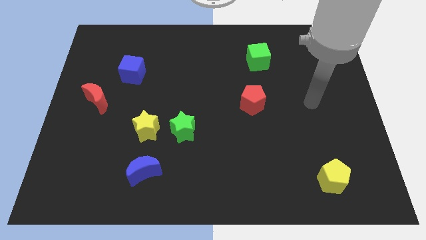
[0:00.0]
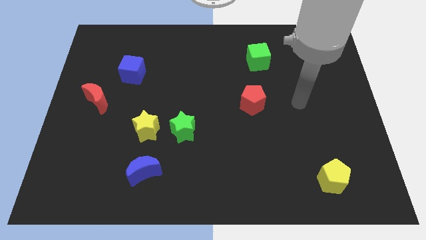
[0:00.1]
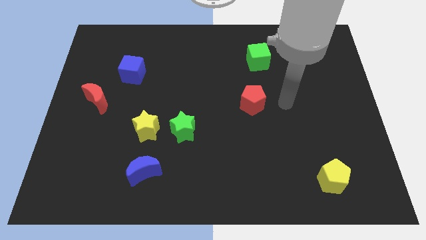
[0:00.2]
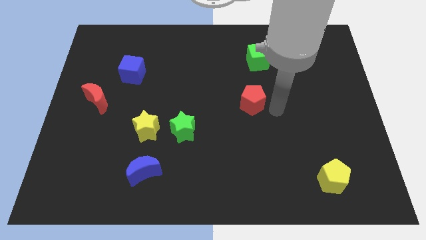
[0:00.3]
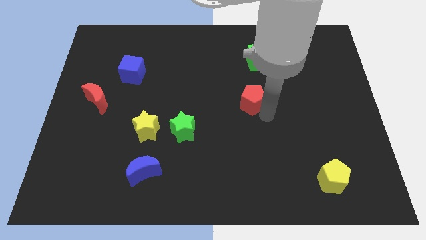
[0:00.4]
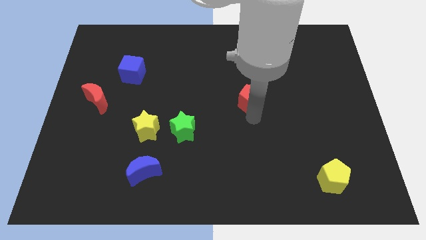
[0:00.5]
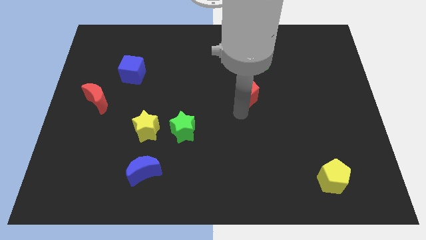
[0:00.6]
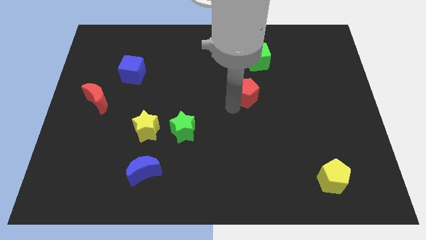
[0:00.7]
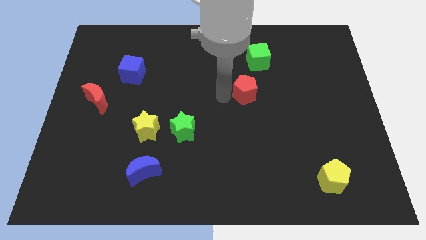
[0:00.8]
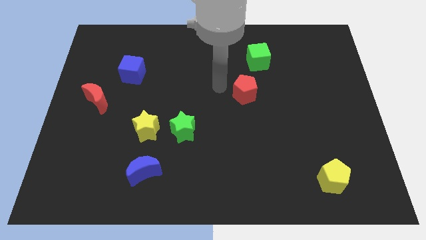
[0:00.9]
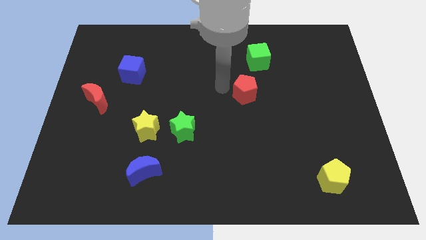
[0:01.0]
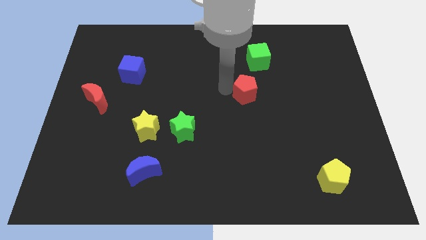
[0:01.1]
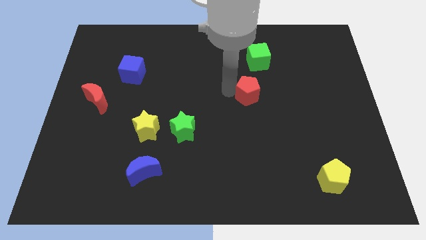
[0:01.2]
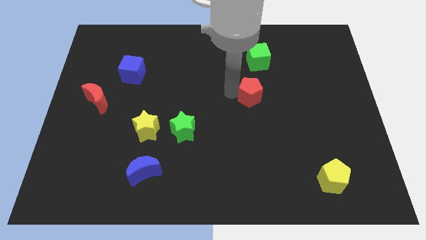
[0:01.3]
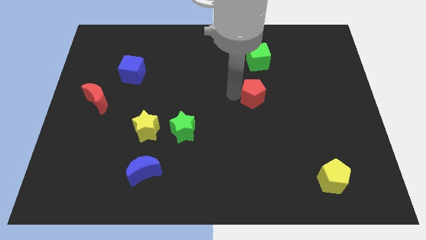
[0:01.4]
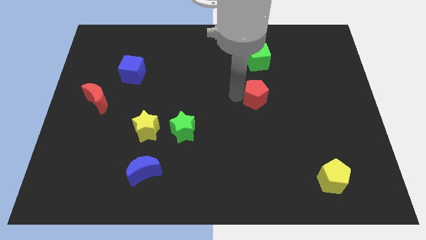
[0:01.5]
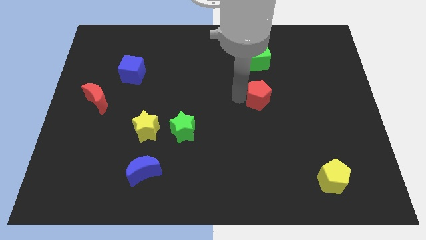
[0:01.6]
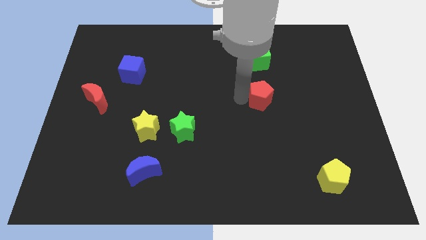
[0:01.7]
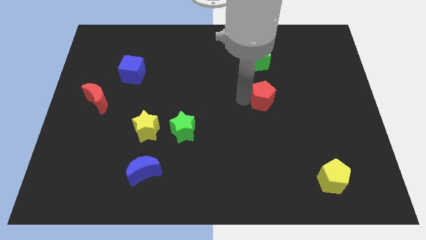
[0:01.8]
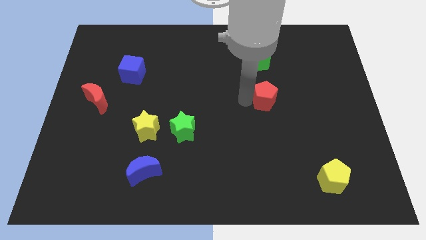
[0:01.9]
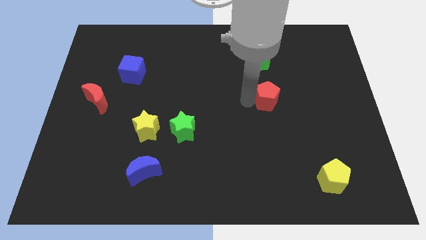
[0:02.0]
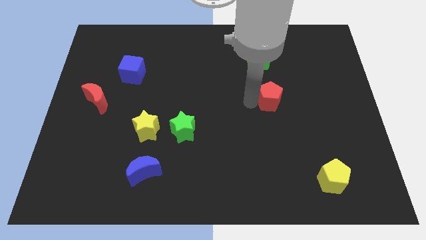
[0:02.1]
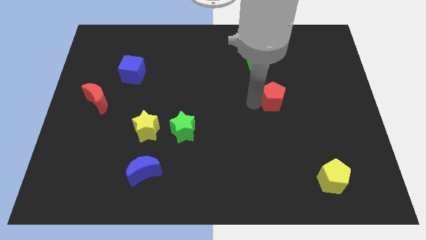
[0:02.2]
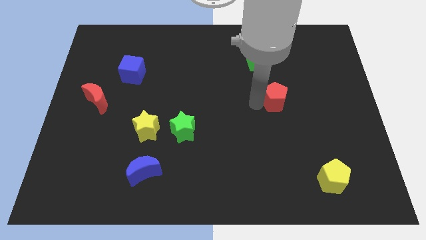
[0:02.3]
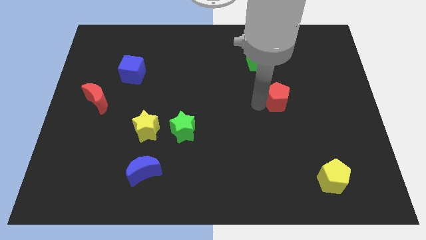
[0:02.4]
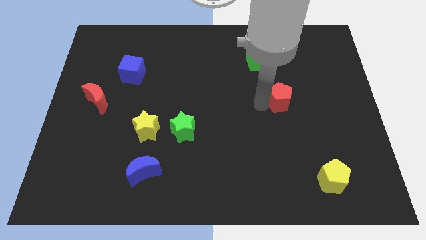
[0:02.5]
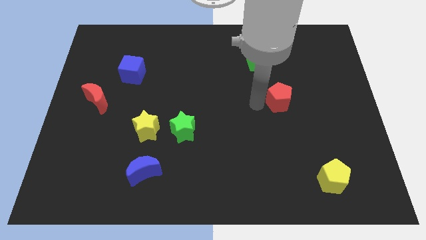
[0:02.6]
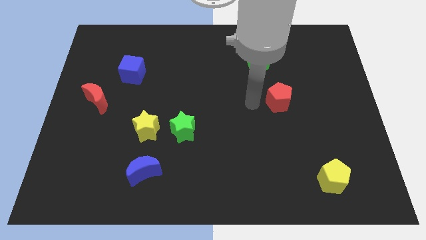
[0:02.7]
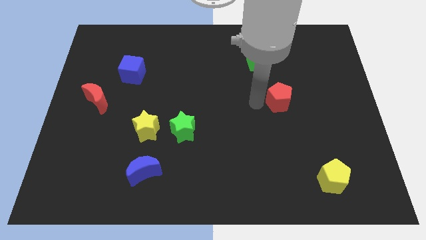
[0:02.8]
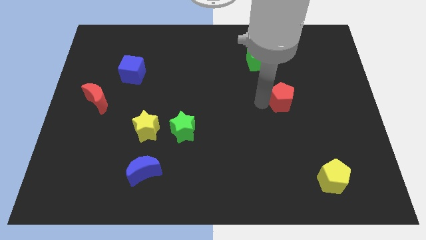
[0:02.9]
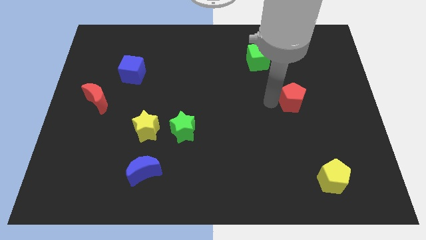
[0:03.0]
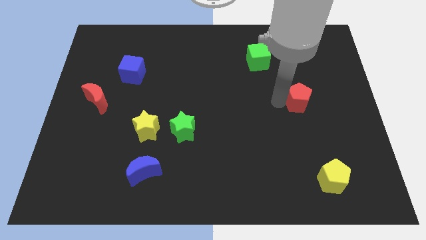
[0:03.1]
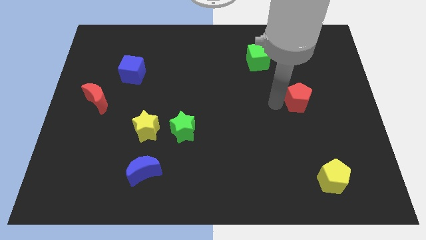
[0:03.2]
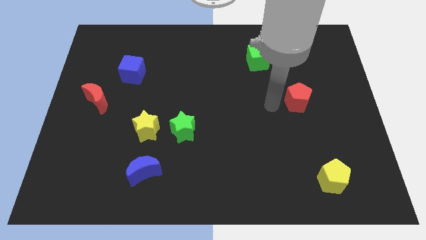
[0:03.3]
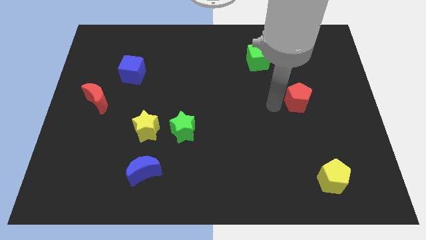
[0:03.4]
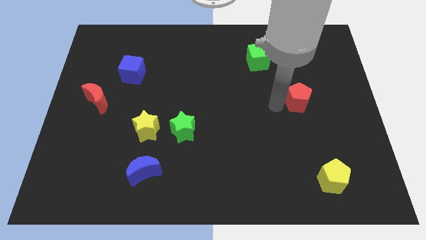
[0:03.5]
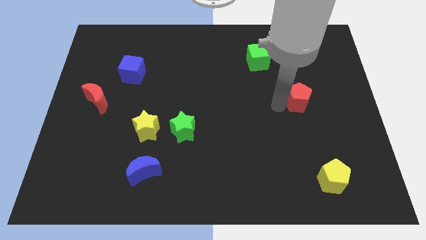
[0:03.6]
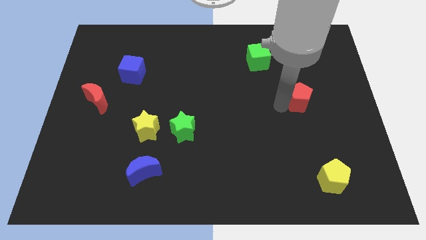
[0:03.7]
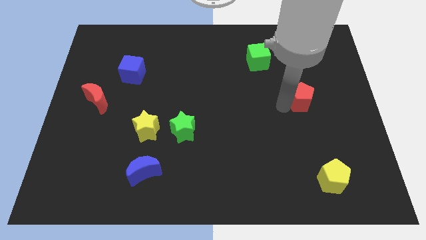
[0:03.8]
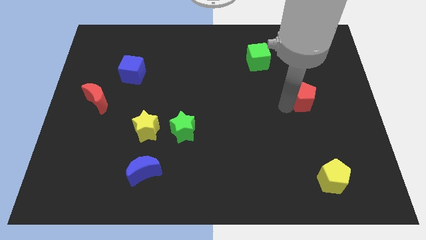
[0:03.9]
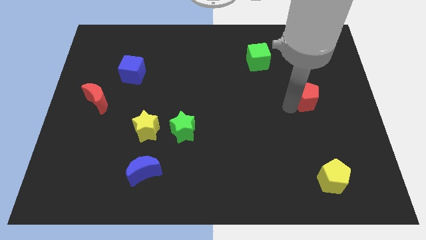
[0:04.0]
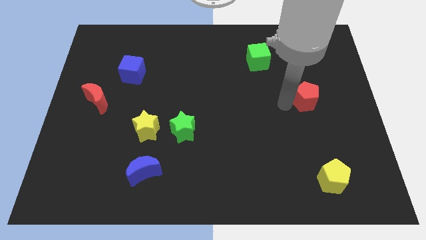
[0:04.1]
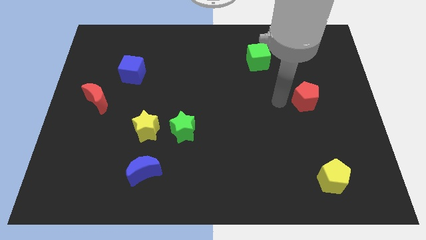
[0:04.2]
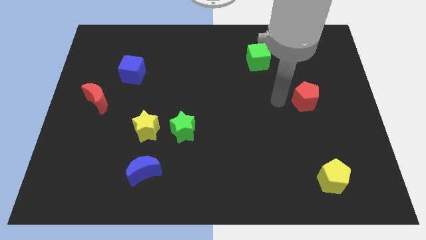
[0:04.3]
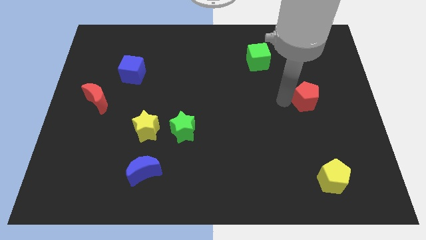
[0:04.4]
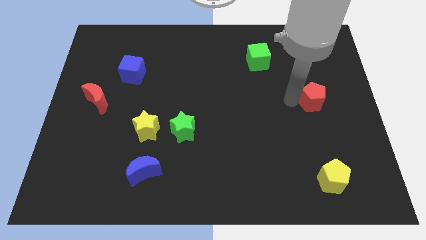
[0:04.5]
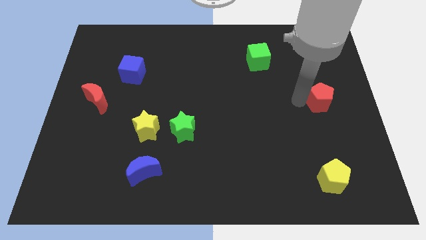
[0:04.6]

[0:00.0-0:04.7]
slide the red pentagon to the center right

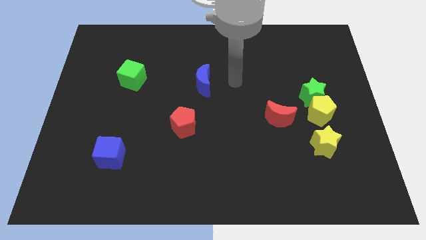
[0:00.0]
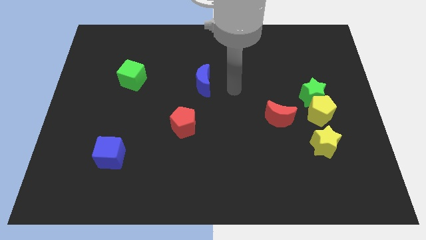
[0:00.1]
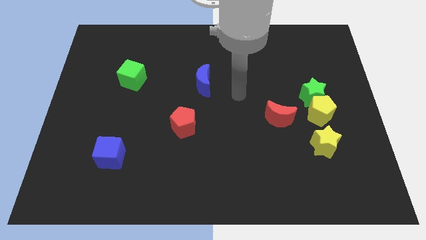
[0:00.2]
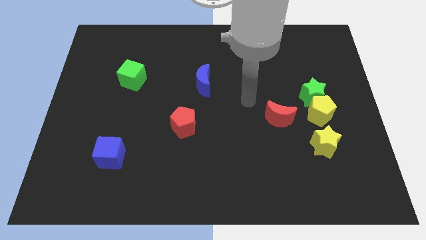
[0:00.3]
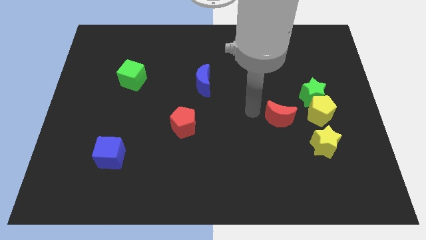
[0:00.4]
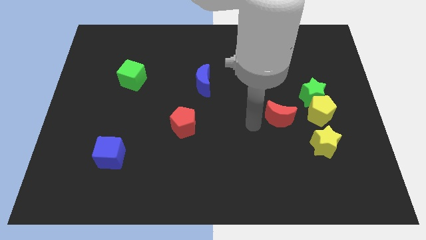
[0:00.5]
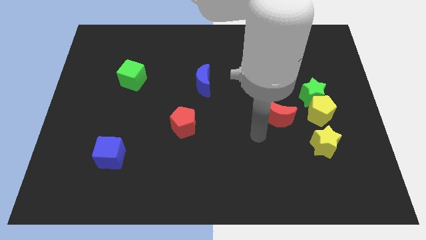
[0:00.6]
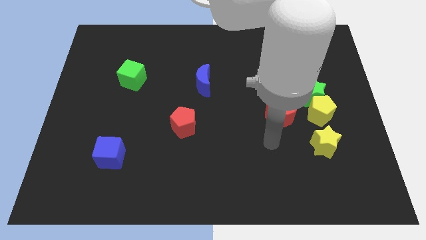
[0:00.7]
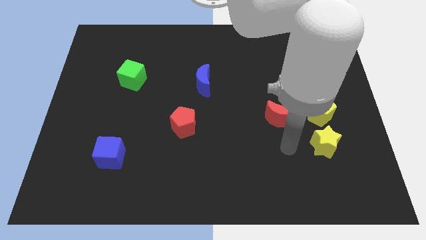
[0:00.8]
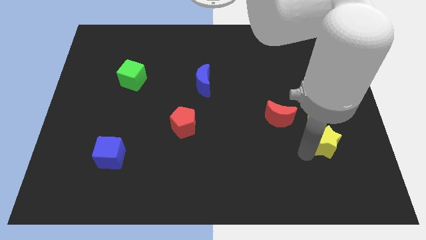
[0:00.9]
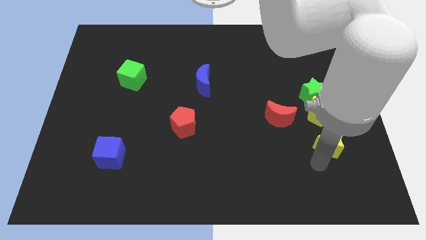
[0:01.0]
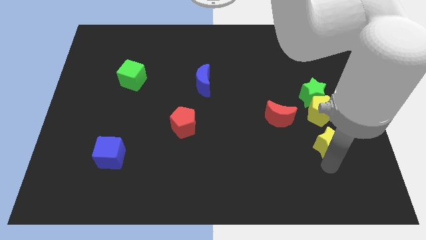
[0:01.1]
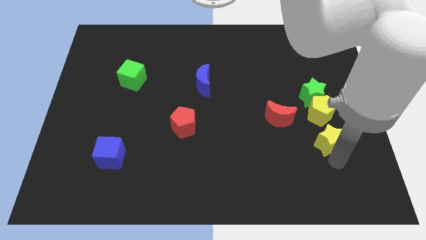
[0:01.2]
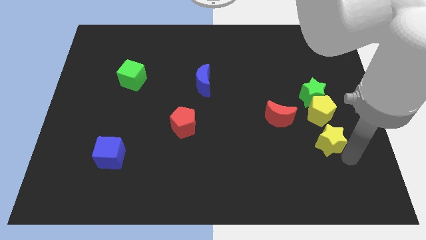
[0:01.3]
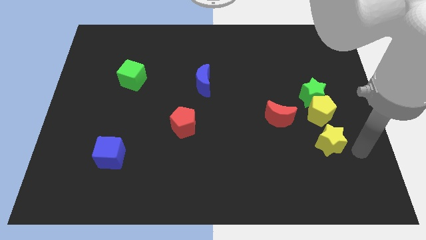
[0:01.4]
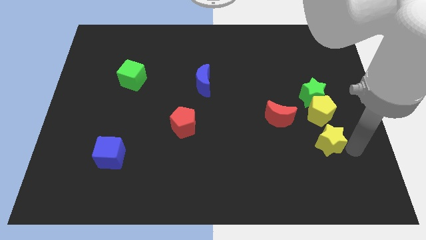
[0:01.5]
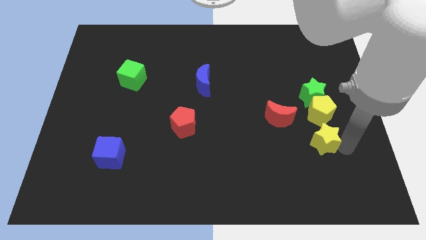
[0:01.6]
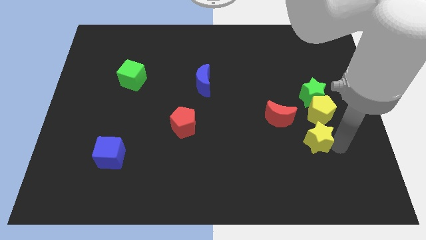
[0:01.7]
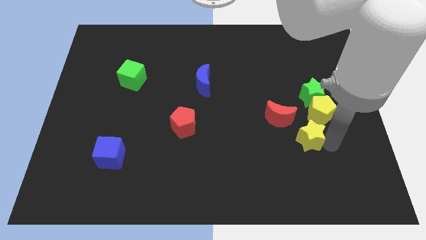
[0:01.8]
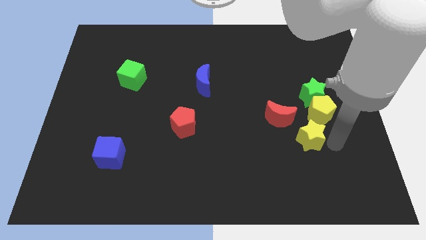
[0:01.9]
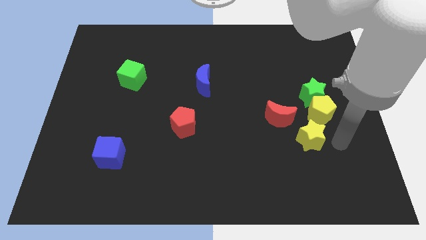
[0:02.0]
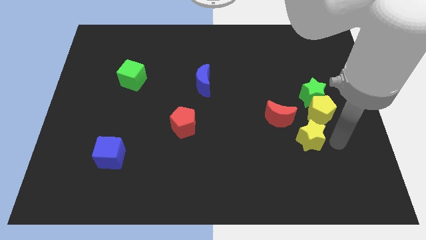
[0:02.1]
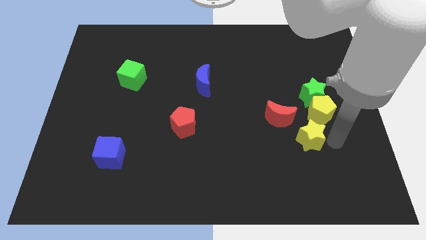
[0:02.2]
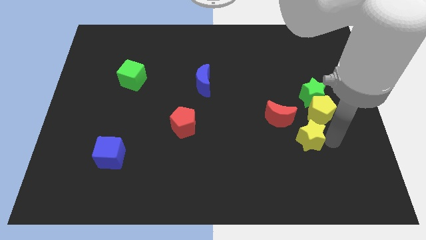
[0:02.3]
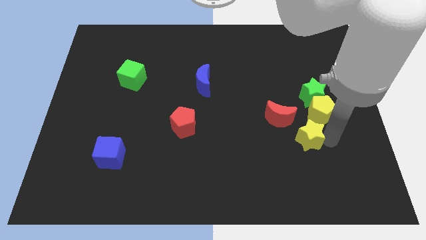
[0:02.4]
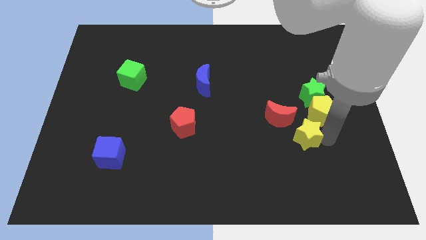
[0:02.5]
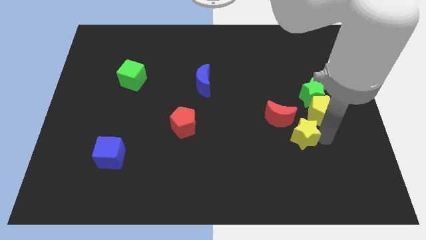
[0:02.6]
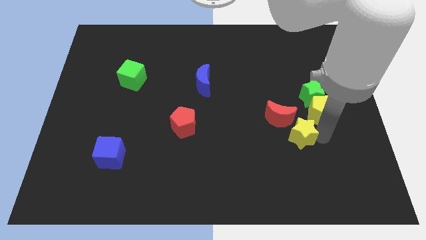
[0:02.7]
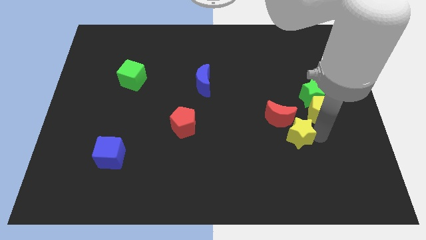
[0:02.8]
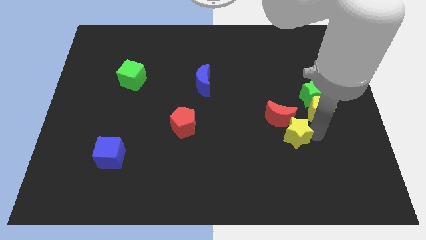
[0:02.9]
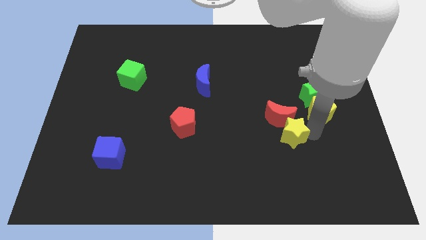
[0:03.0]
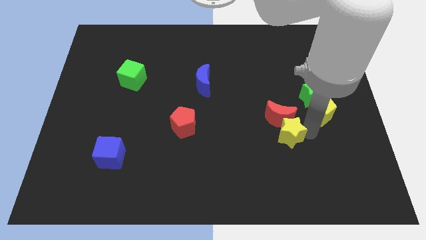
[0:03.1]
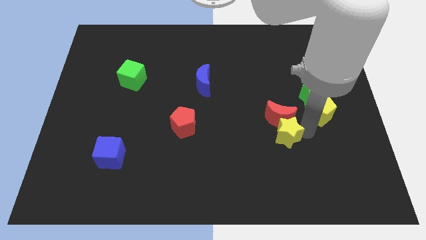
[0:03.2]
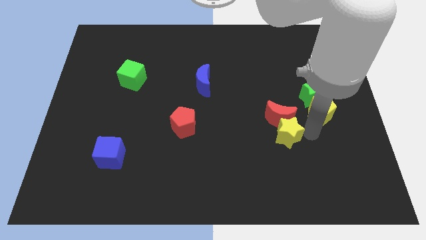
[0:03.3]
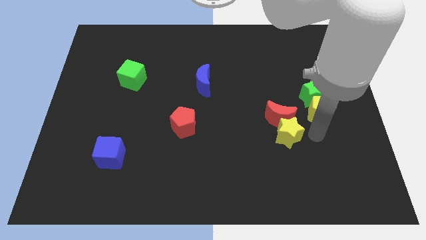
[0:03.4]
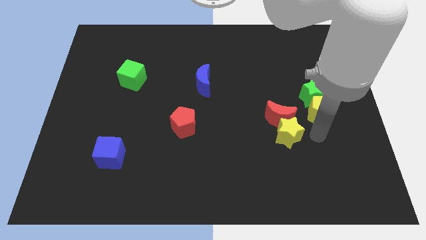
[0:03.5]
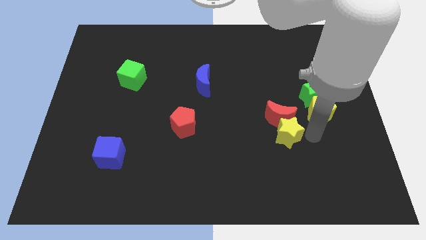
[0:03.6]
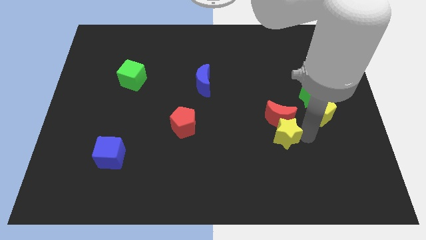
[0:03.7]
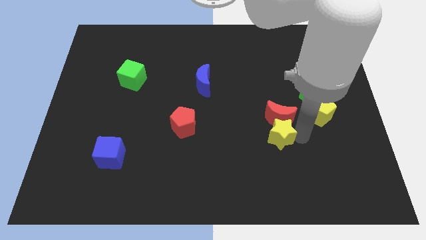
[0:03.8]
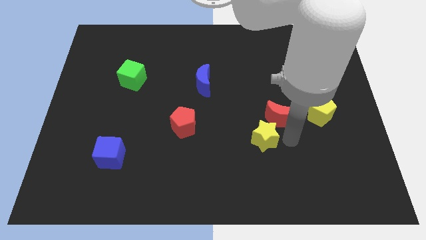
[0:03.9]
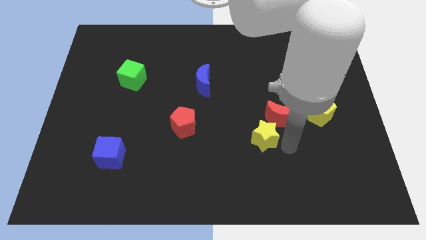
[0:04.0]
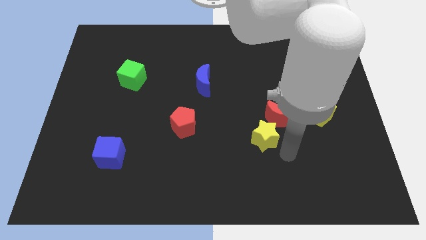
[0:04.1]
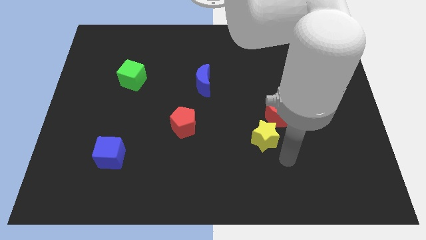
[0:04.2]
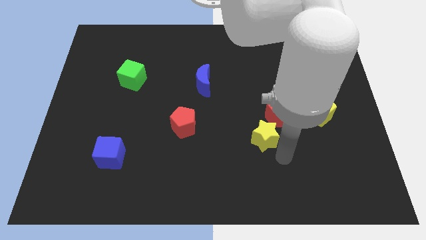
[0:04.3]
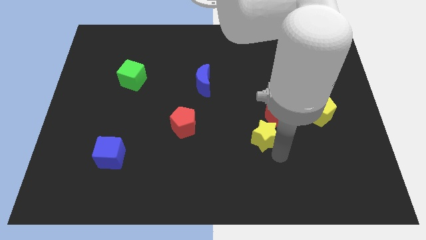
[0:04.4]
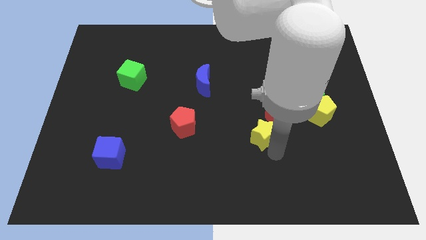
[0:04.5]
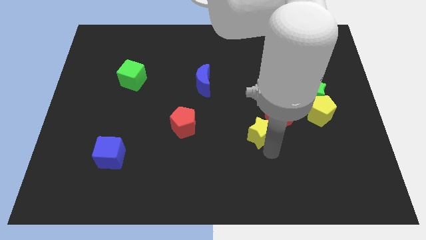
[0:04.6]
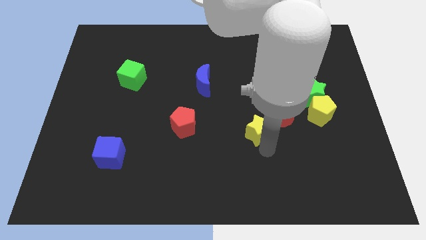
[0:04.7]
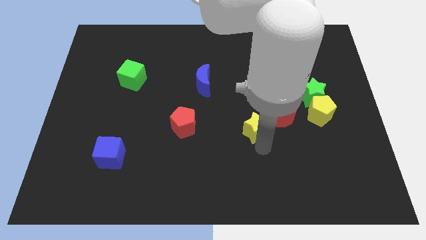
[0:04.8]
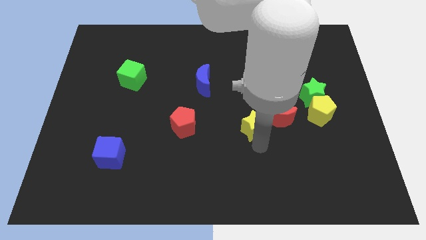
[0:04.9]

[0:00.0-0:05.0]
push the yellow star to the middle of the board
